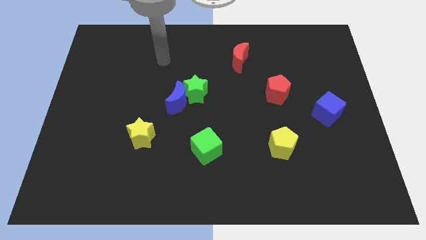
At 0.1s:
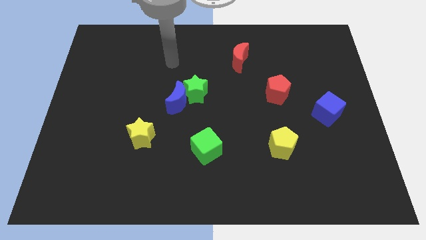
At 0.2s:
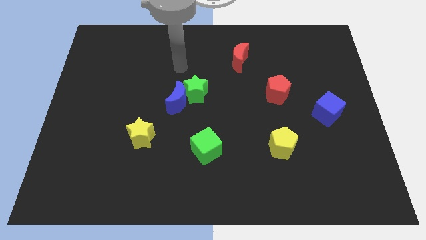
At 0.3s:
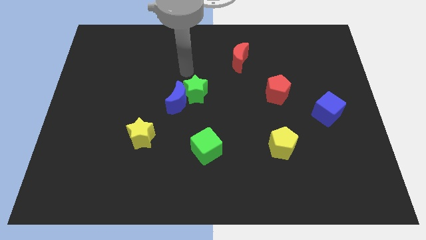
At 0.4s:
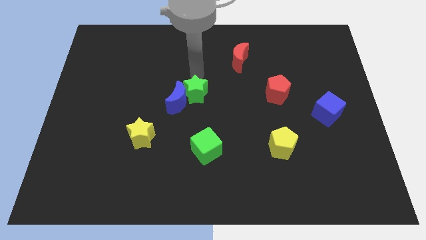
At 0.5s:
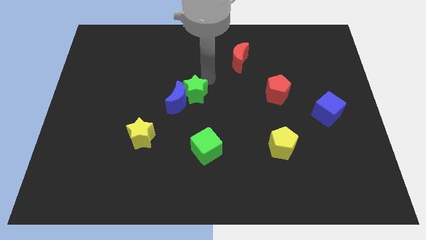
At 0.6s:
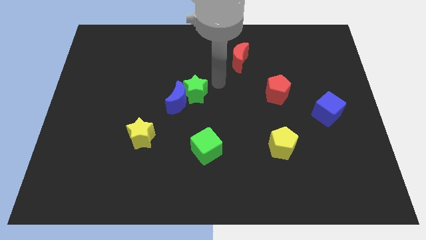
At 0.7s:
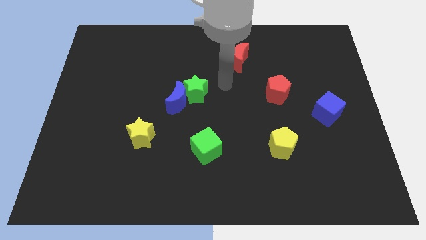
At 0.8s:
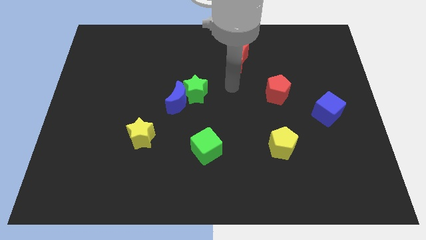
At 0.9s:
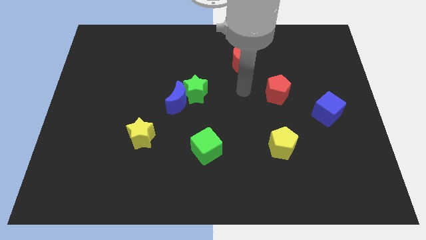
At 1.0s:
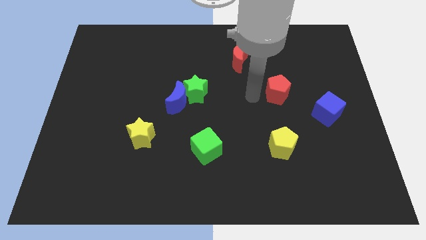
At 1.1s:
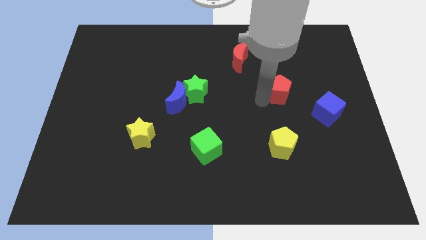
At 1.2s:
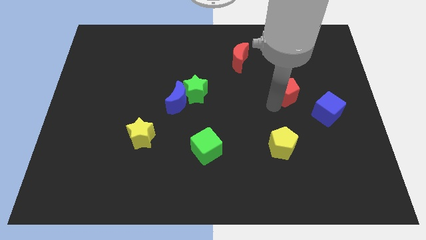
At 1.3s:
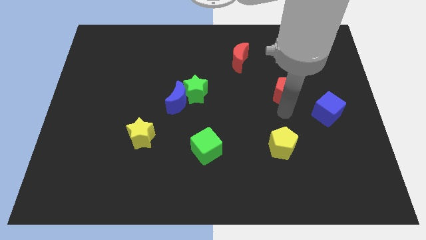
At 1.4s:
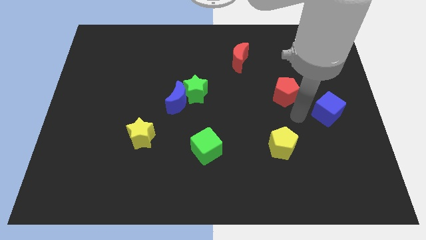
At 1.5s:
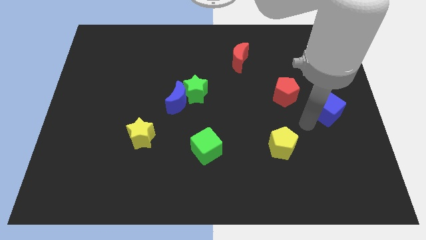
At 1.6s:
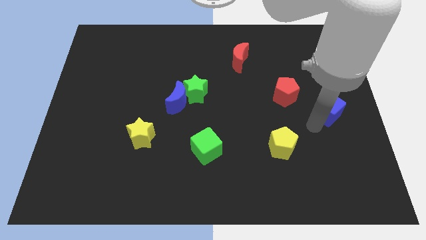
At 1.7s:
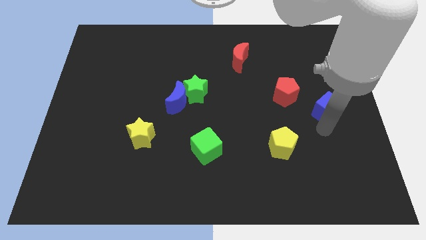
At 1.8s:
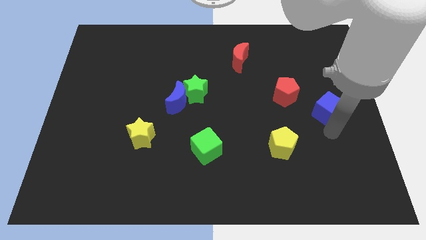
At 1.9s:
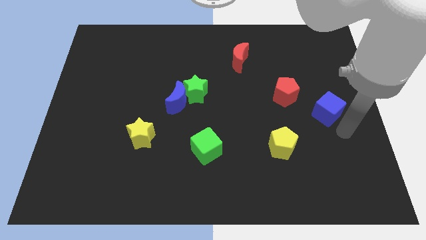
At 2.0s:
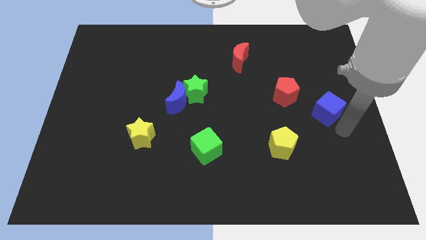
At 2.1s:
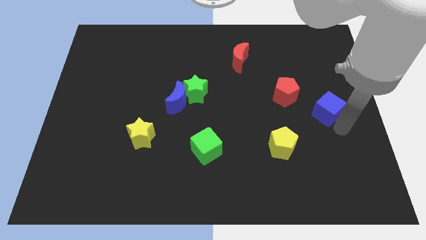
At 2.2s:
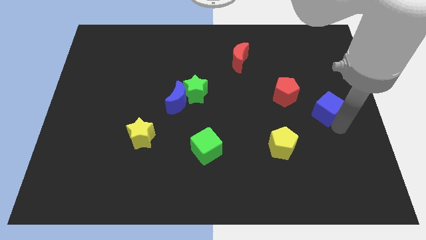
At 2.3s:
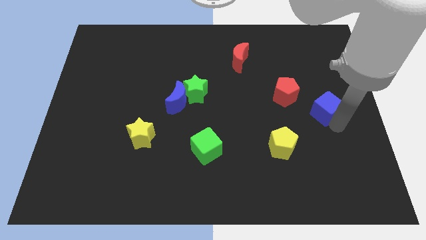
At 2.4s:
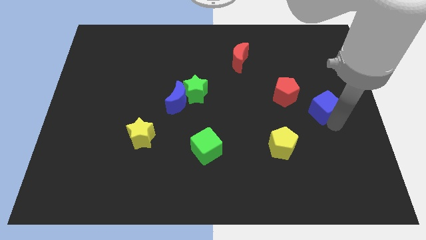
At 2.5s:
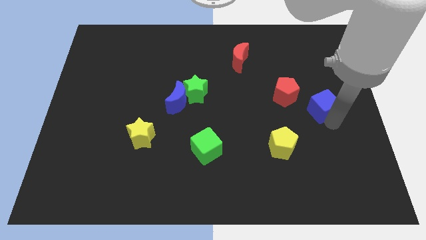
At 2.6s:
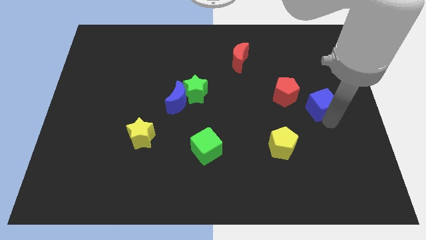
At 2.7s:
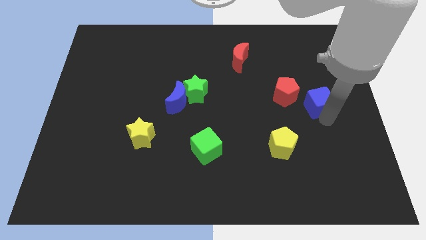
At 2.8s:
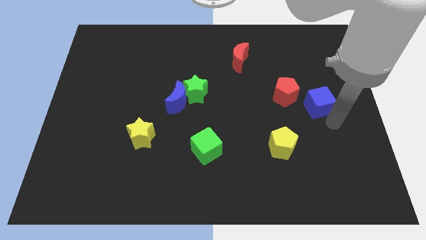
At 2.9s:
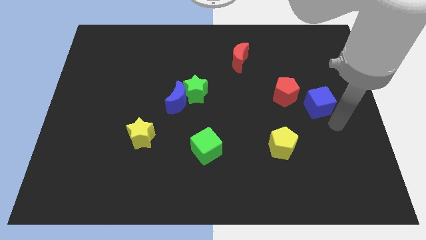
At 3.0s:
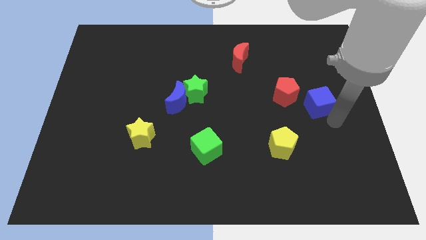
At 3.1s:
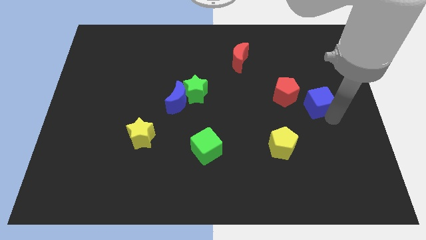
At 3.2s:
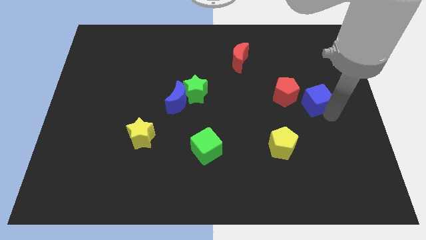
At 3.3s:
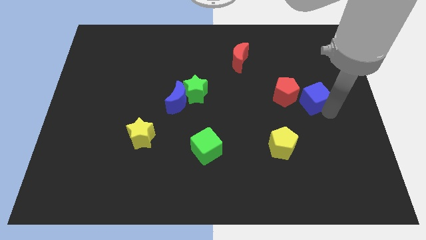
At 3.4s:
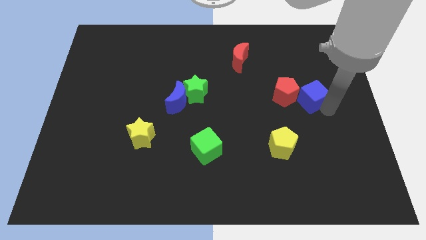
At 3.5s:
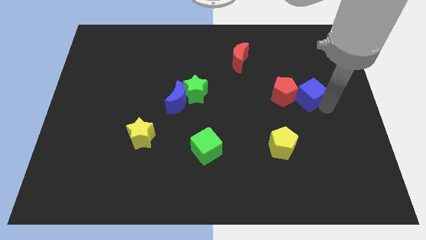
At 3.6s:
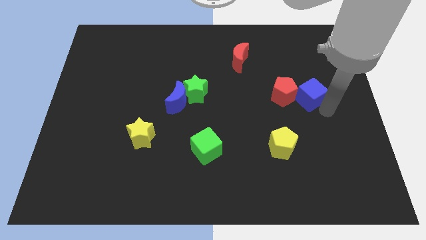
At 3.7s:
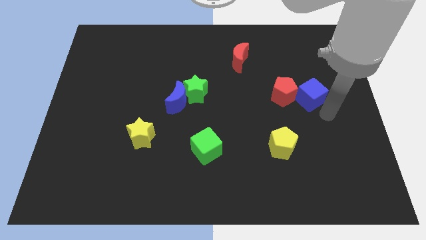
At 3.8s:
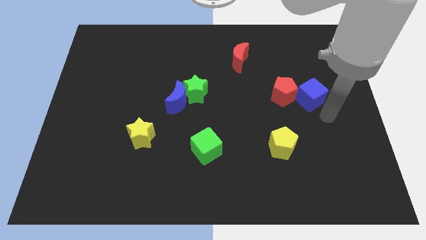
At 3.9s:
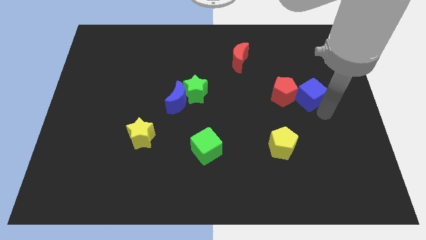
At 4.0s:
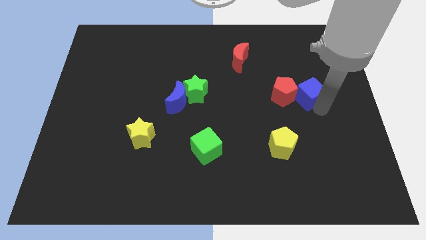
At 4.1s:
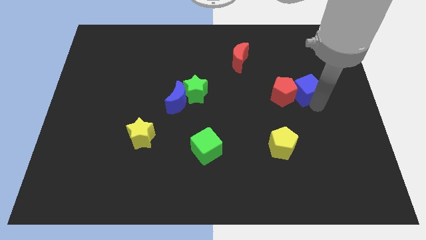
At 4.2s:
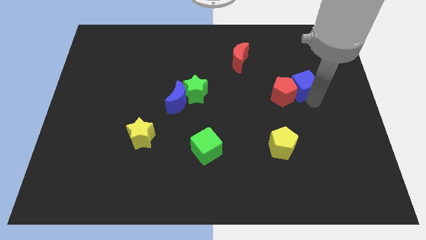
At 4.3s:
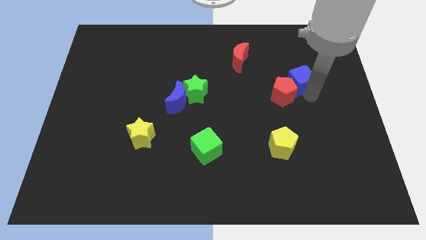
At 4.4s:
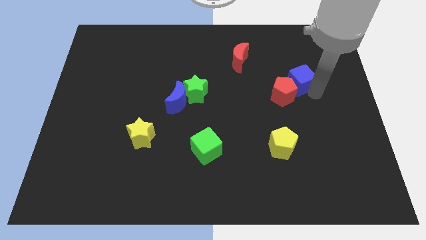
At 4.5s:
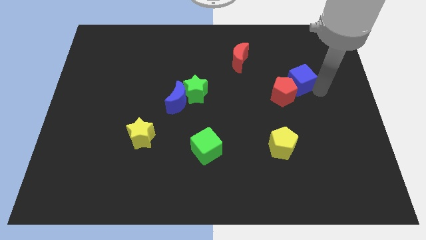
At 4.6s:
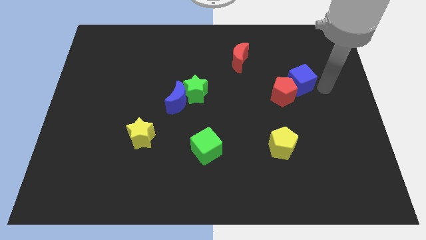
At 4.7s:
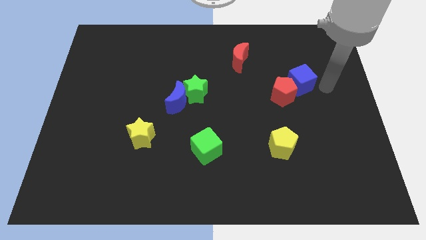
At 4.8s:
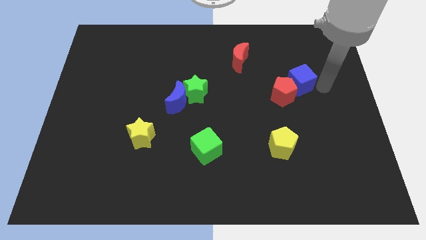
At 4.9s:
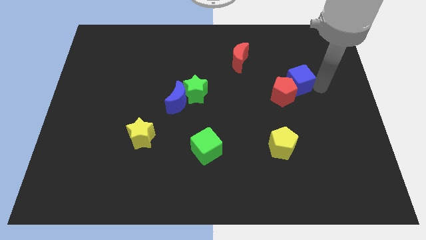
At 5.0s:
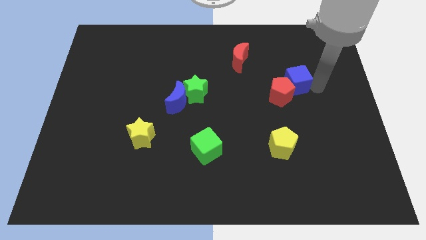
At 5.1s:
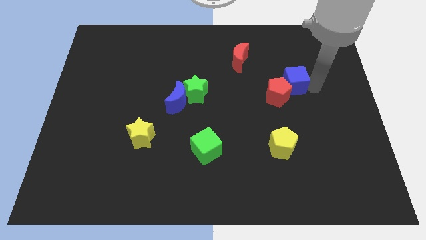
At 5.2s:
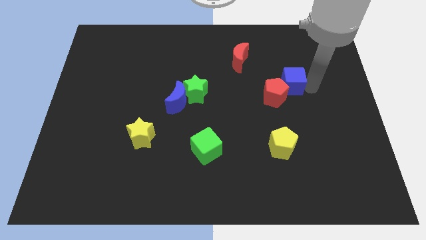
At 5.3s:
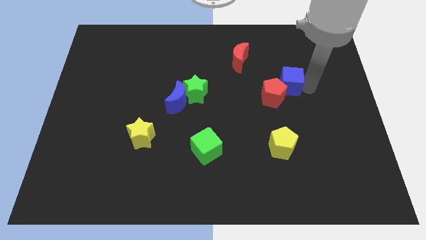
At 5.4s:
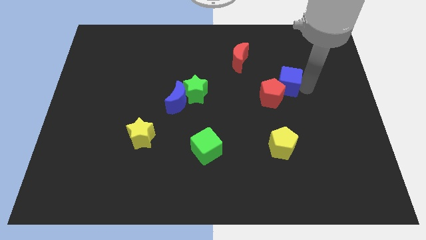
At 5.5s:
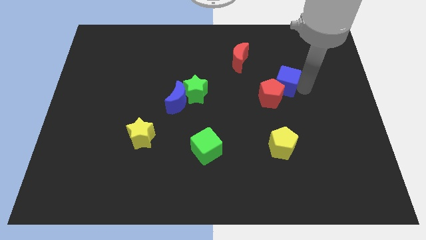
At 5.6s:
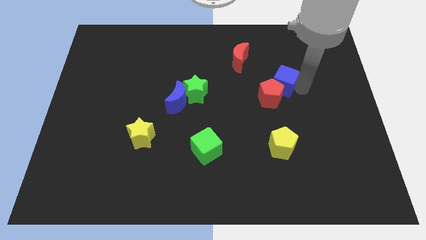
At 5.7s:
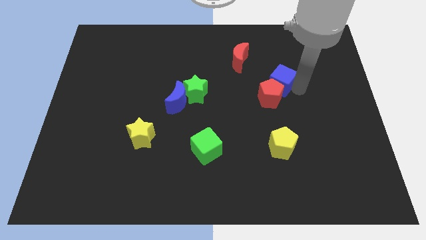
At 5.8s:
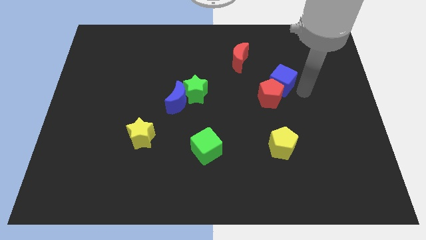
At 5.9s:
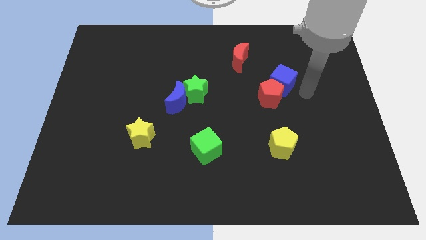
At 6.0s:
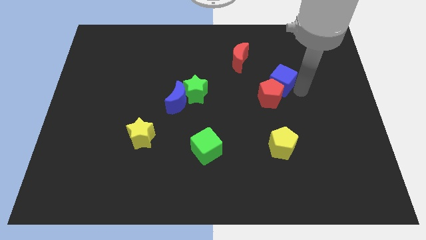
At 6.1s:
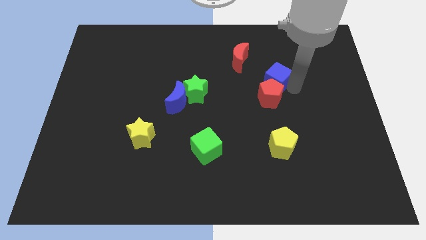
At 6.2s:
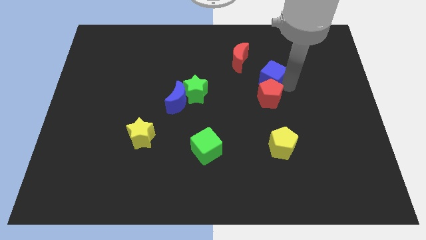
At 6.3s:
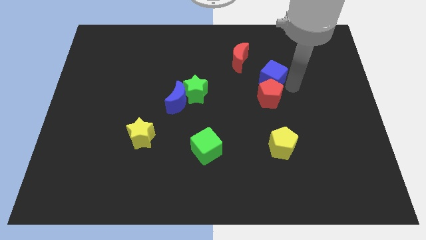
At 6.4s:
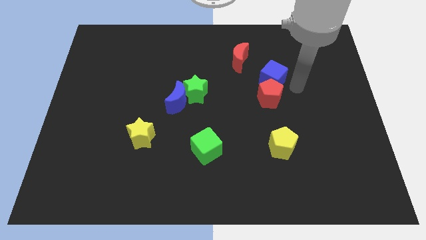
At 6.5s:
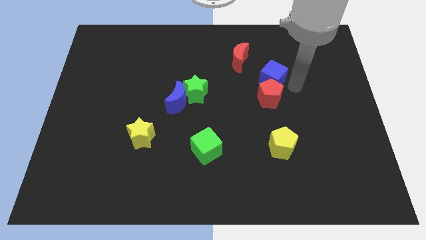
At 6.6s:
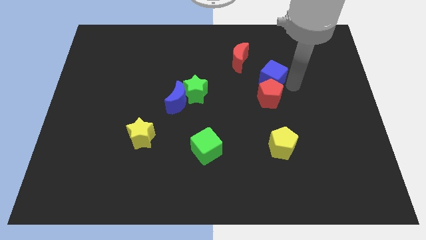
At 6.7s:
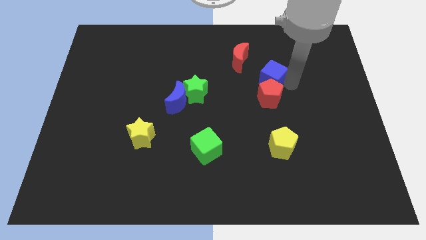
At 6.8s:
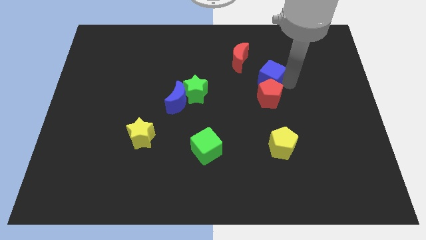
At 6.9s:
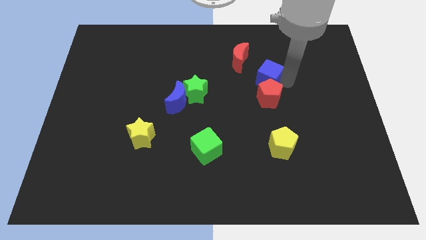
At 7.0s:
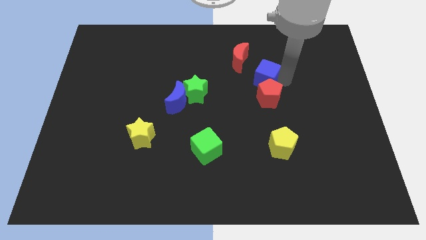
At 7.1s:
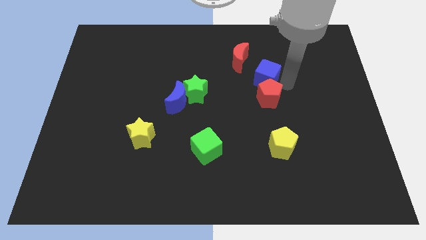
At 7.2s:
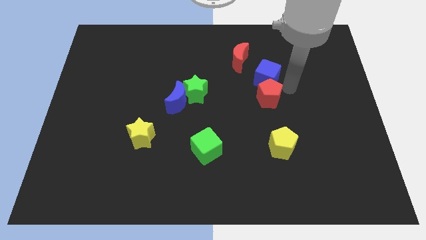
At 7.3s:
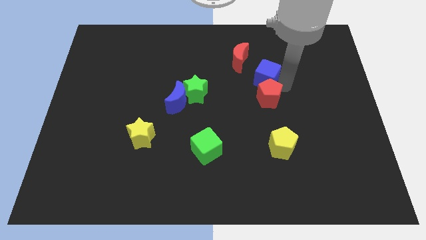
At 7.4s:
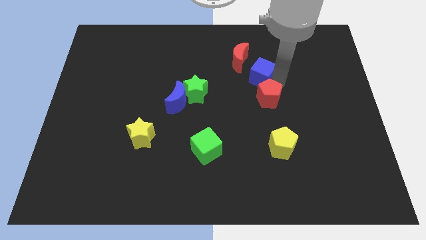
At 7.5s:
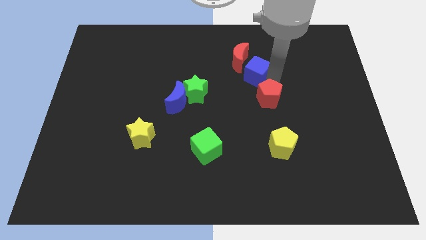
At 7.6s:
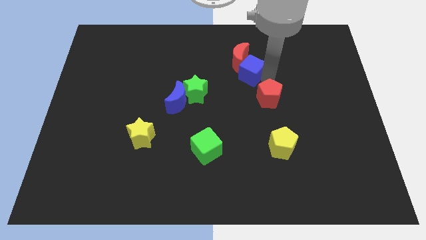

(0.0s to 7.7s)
put the blue cube towards the red moon
